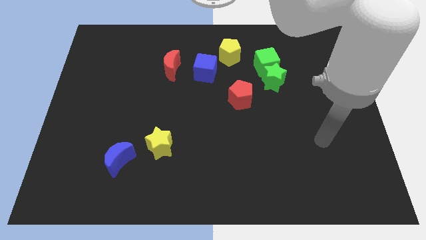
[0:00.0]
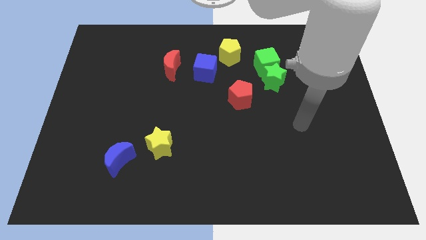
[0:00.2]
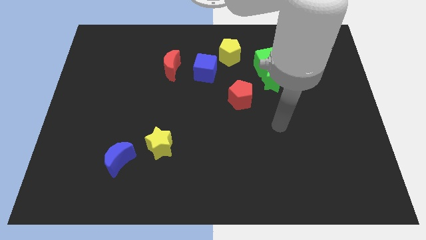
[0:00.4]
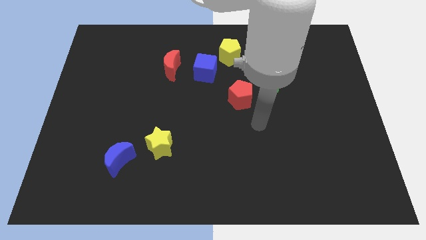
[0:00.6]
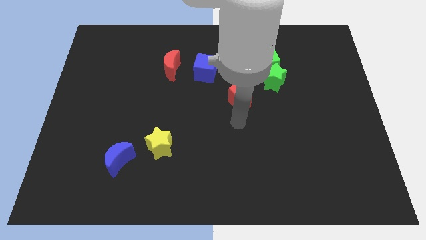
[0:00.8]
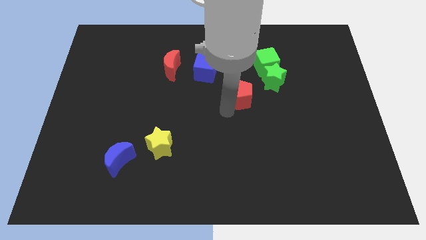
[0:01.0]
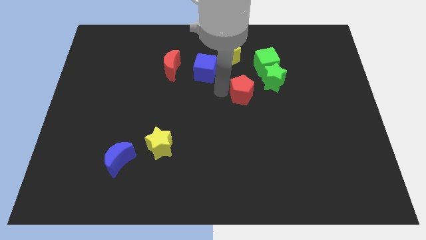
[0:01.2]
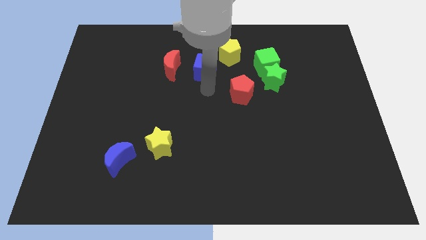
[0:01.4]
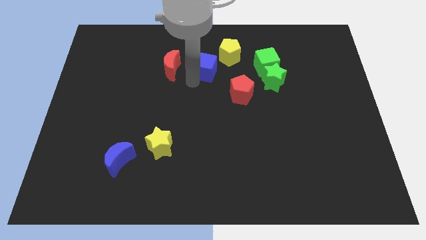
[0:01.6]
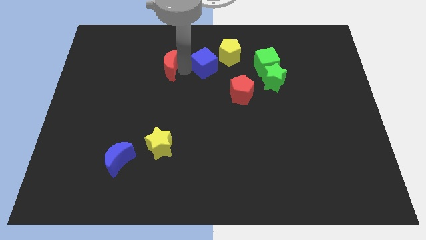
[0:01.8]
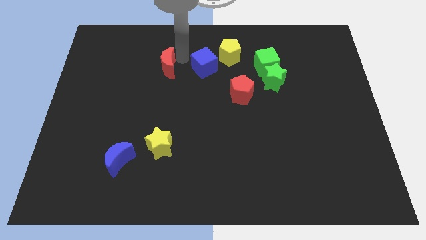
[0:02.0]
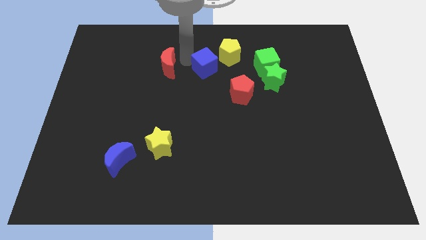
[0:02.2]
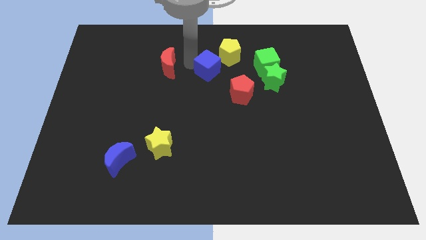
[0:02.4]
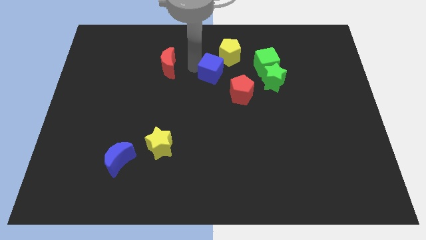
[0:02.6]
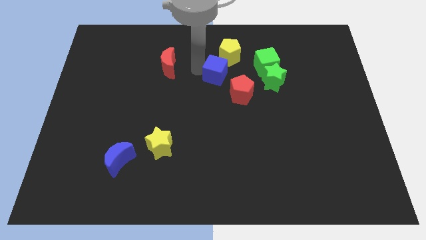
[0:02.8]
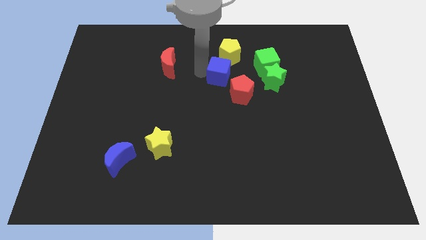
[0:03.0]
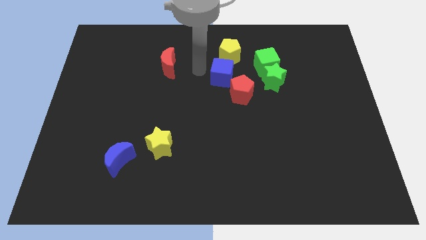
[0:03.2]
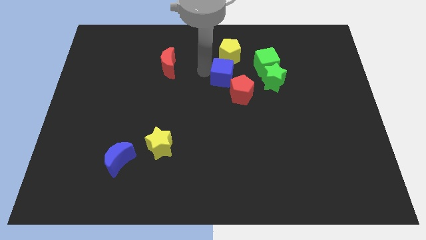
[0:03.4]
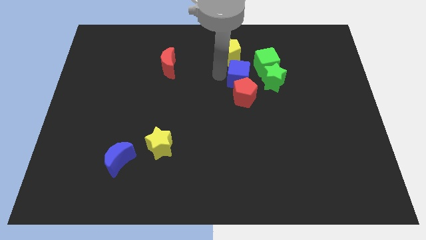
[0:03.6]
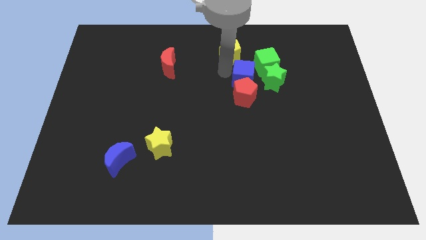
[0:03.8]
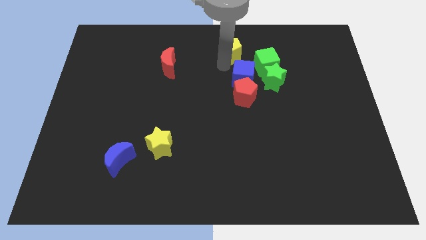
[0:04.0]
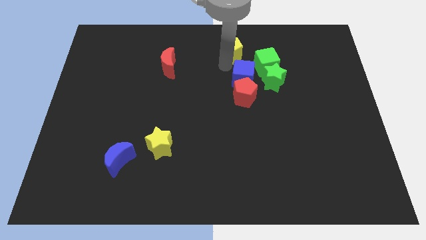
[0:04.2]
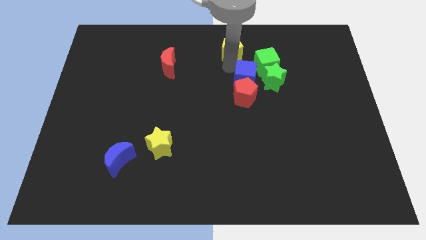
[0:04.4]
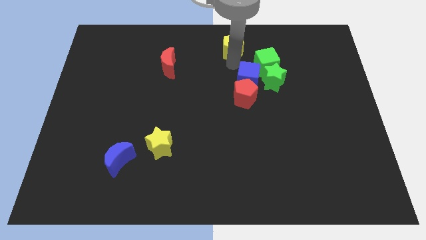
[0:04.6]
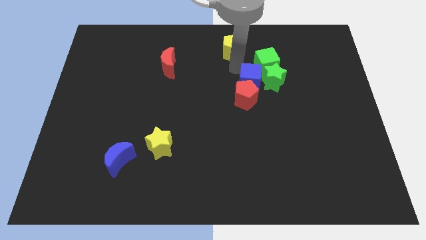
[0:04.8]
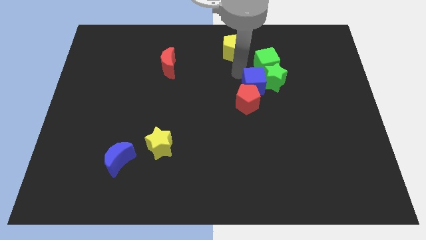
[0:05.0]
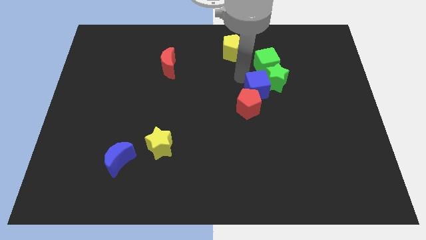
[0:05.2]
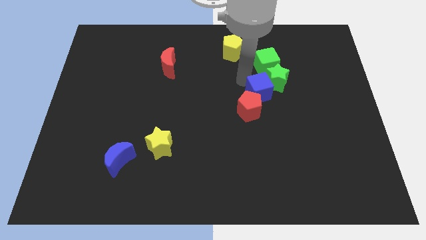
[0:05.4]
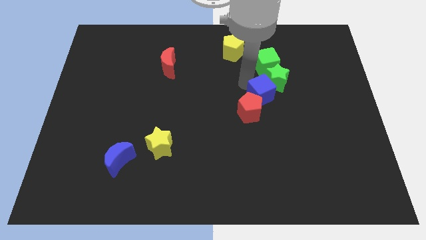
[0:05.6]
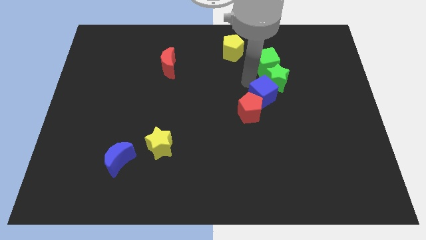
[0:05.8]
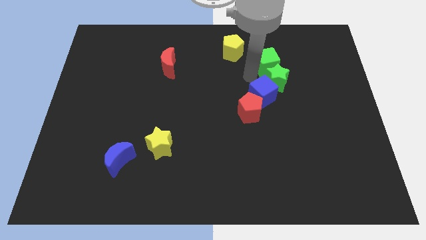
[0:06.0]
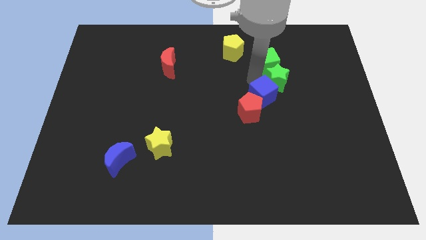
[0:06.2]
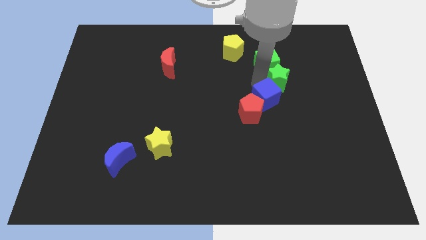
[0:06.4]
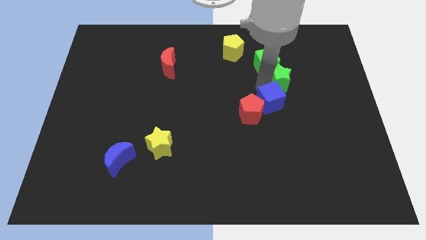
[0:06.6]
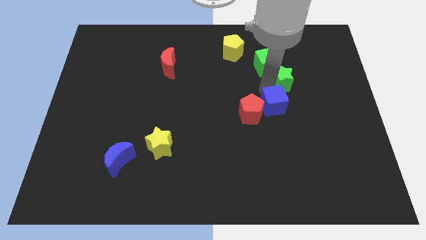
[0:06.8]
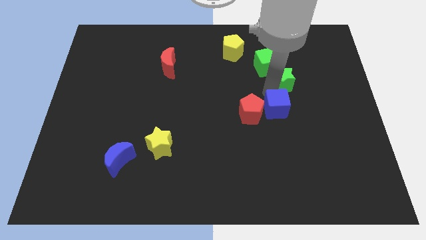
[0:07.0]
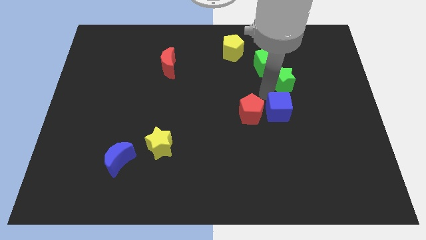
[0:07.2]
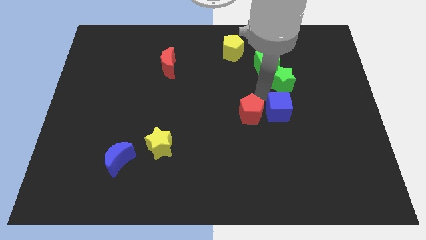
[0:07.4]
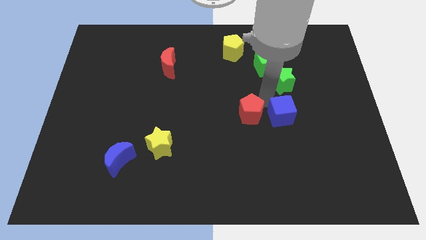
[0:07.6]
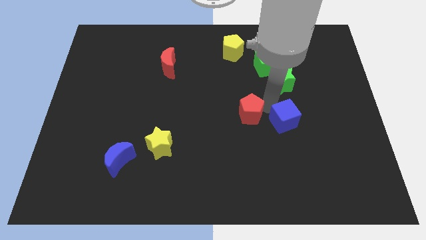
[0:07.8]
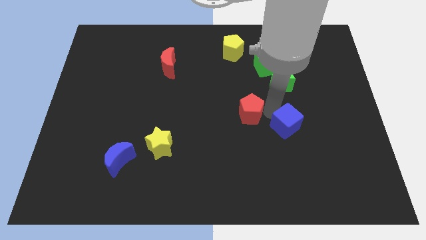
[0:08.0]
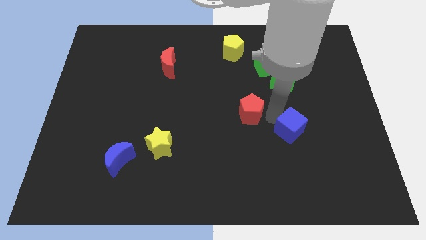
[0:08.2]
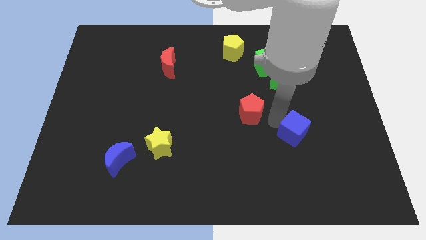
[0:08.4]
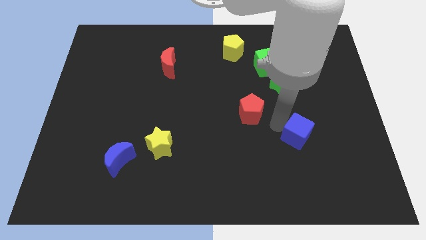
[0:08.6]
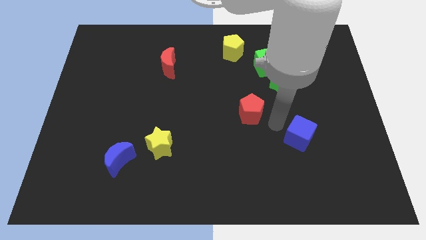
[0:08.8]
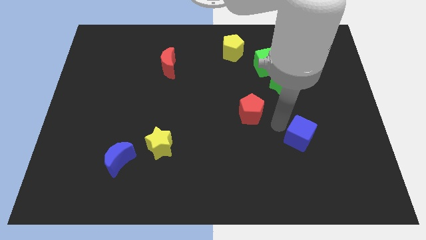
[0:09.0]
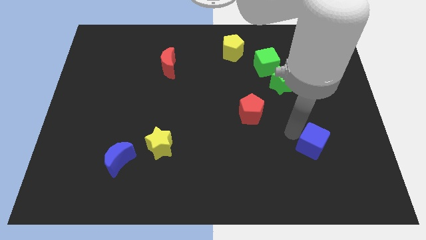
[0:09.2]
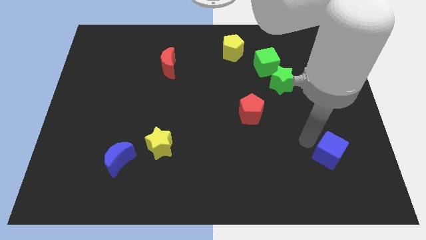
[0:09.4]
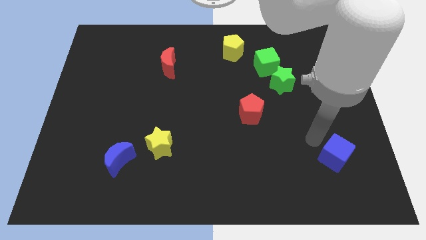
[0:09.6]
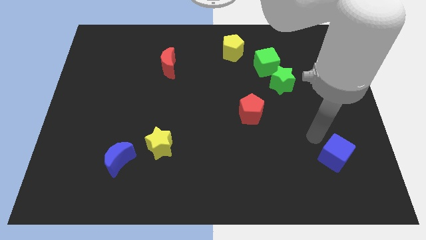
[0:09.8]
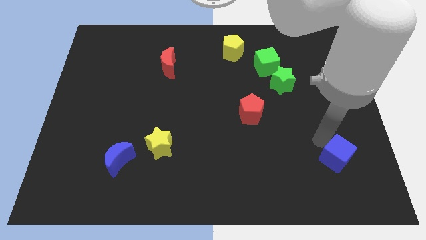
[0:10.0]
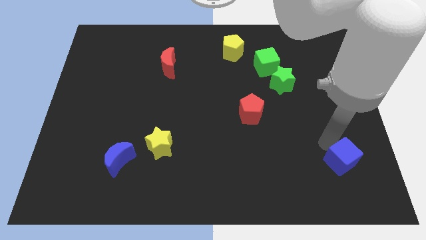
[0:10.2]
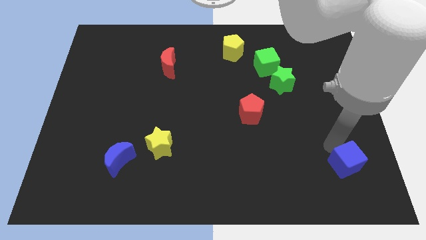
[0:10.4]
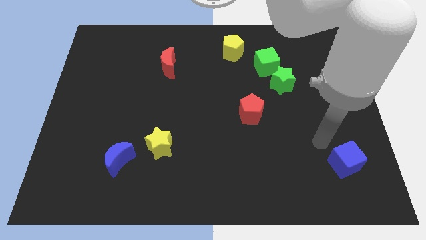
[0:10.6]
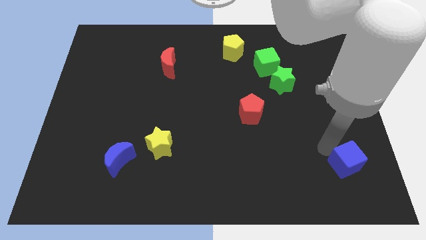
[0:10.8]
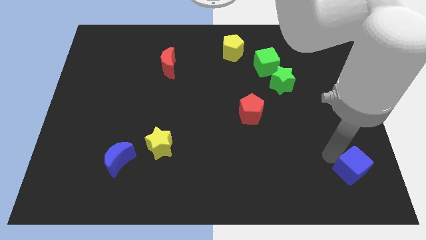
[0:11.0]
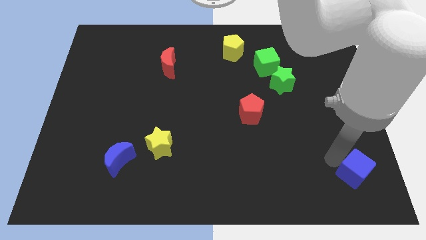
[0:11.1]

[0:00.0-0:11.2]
slide the blue cube to the lower right corner

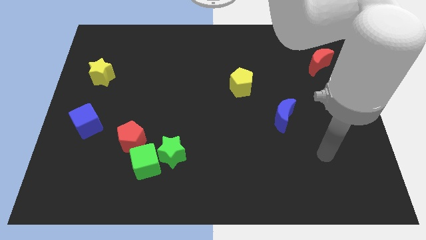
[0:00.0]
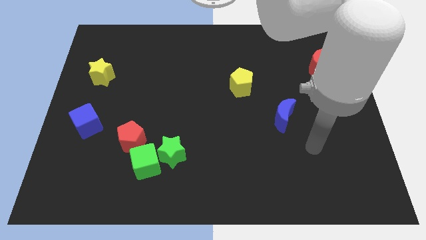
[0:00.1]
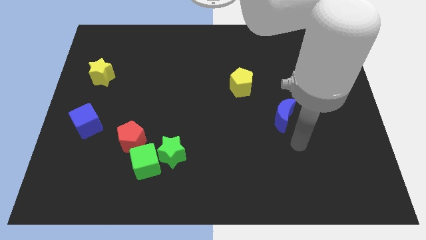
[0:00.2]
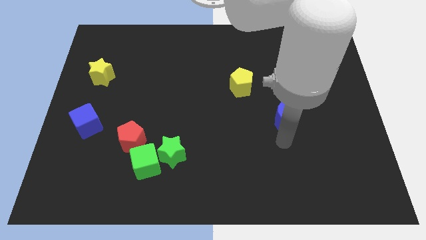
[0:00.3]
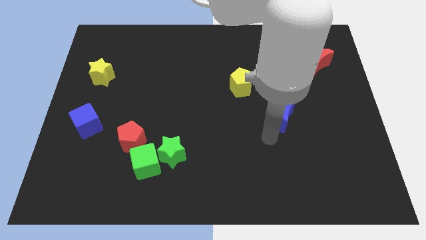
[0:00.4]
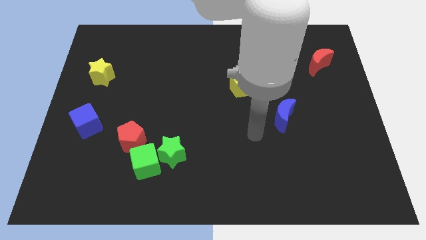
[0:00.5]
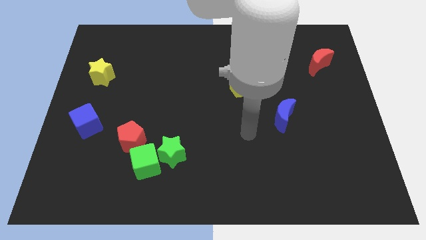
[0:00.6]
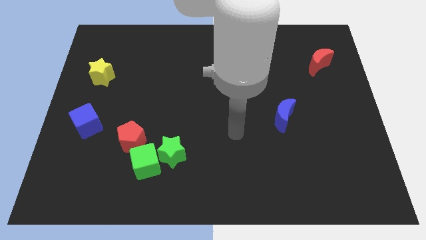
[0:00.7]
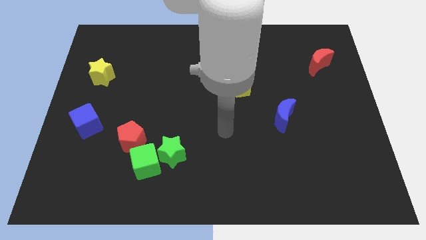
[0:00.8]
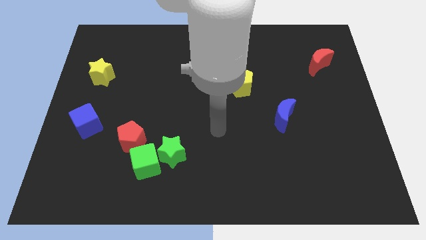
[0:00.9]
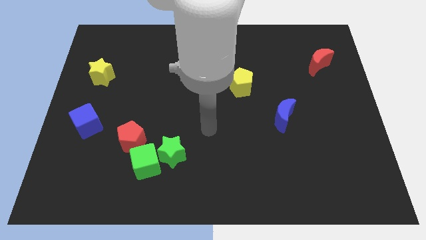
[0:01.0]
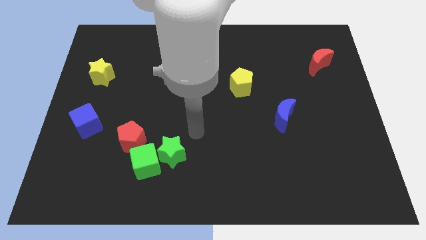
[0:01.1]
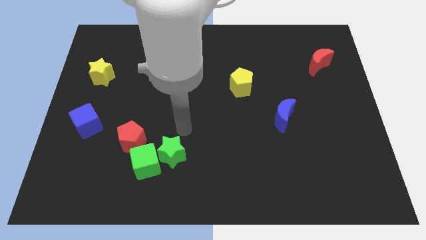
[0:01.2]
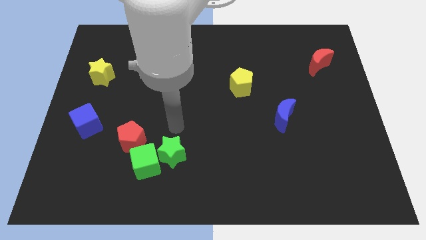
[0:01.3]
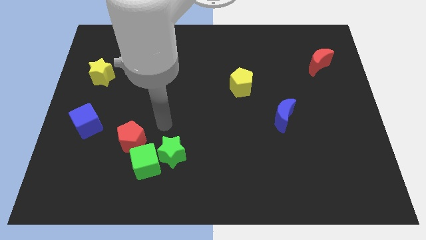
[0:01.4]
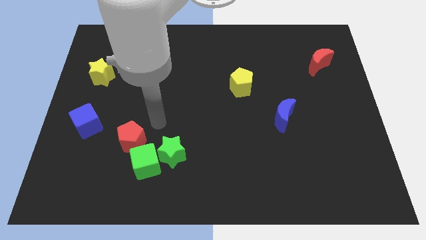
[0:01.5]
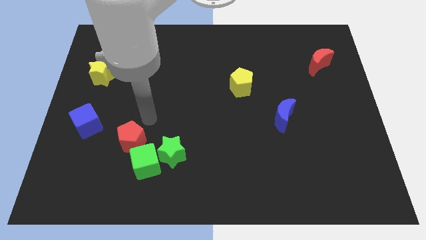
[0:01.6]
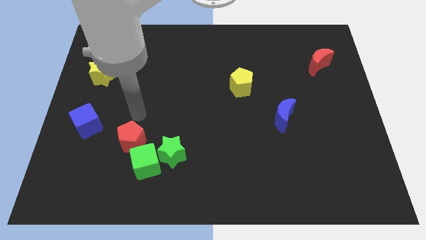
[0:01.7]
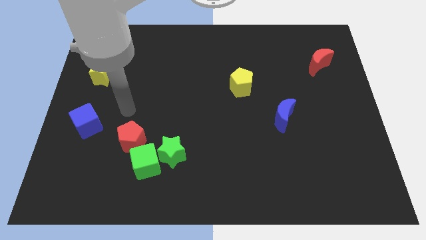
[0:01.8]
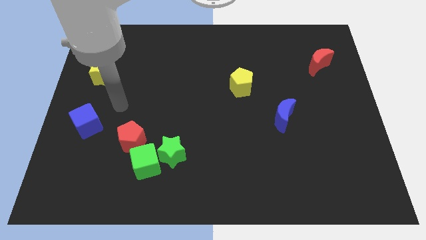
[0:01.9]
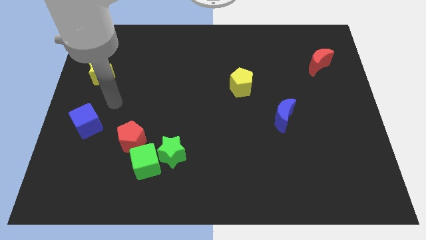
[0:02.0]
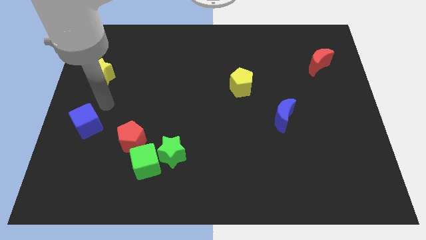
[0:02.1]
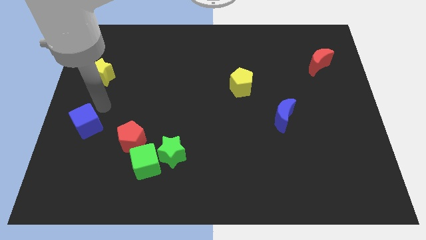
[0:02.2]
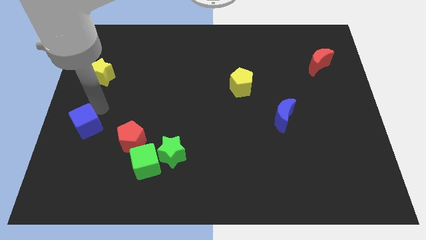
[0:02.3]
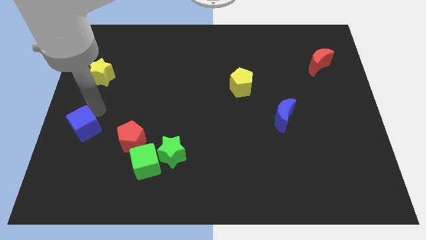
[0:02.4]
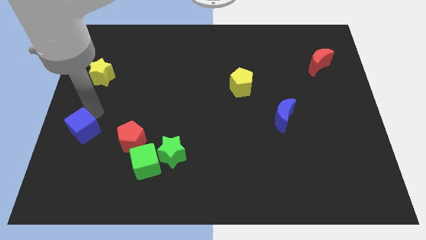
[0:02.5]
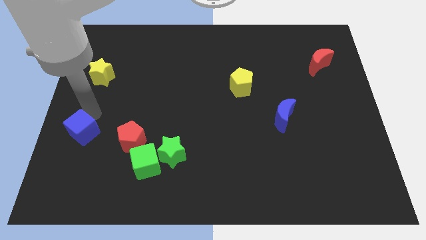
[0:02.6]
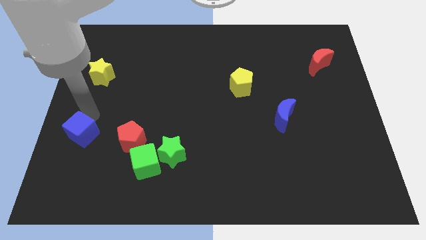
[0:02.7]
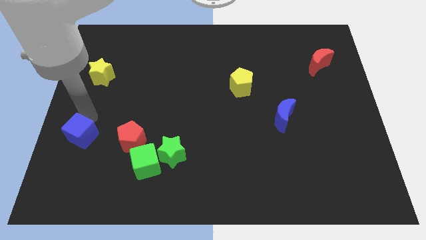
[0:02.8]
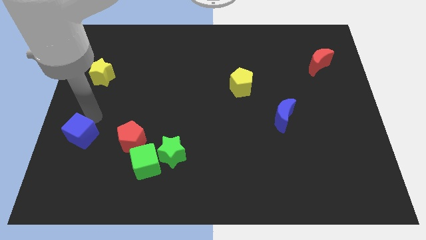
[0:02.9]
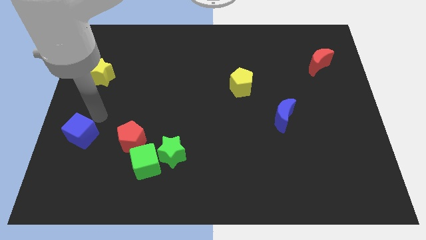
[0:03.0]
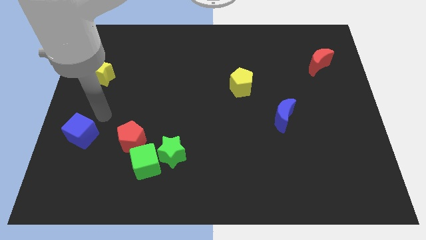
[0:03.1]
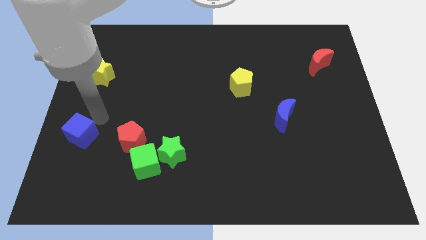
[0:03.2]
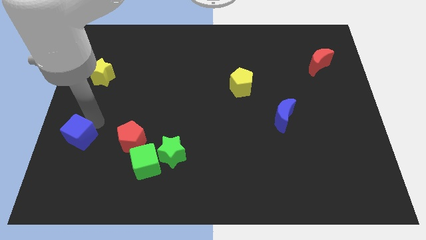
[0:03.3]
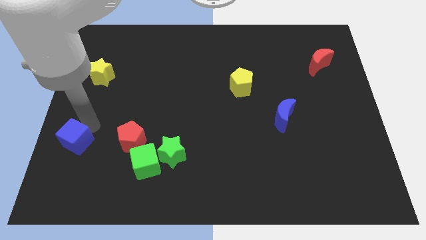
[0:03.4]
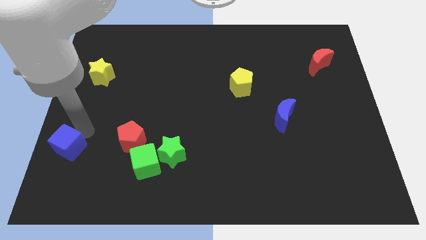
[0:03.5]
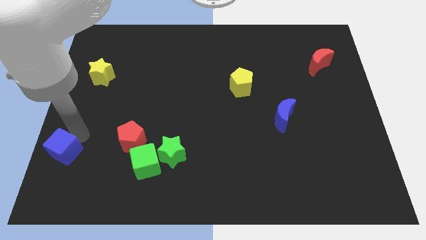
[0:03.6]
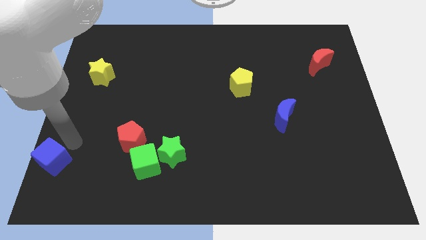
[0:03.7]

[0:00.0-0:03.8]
push the blue cube to the bottom left of the board
